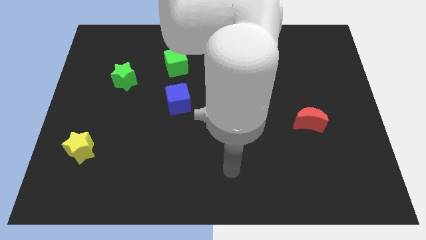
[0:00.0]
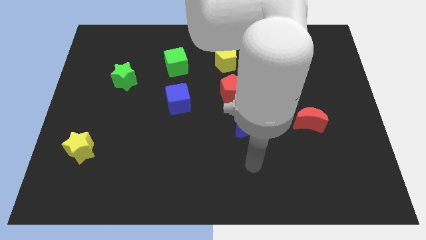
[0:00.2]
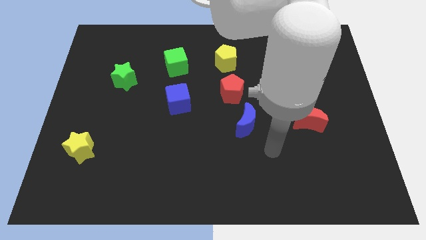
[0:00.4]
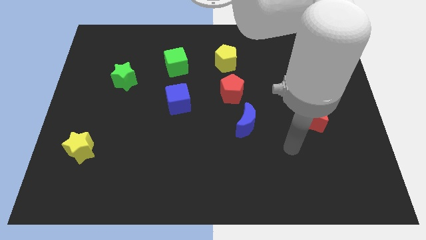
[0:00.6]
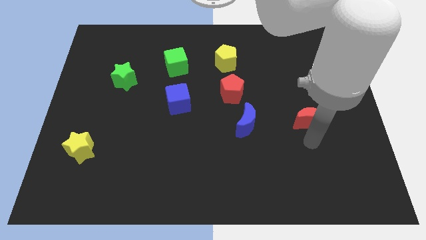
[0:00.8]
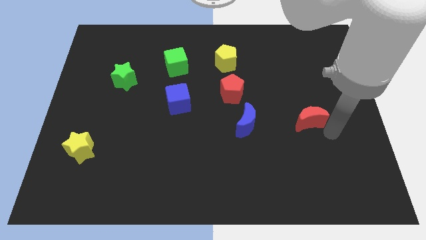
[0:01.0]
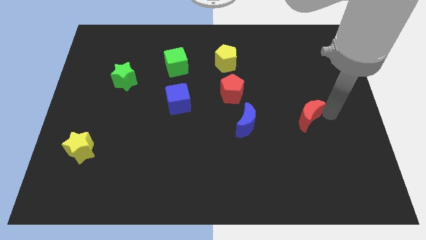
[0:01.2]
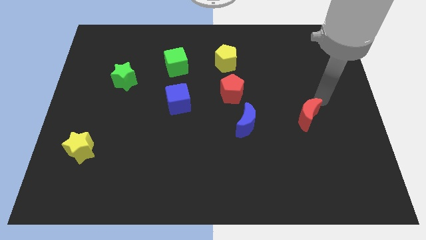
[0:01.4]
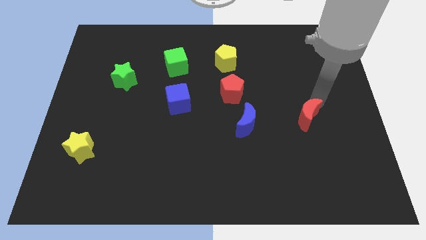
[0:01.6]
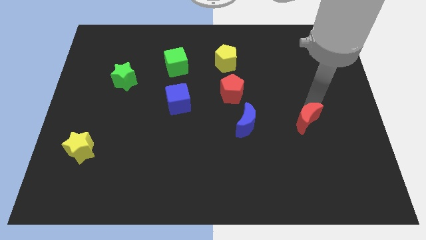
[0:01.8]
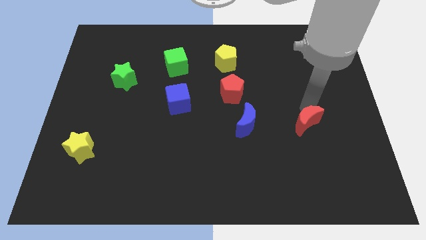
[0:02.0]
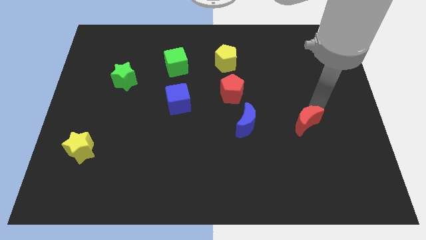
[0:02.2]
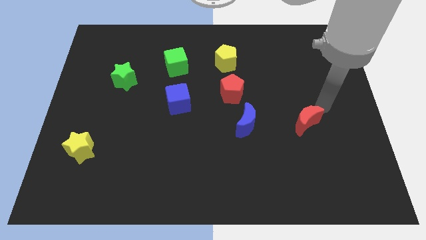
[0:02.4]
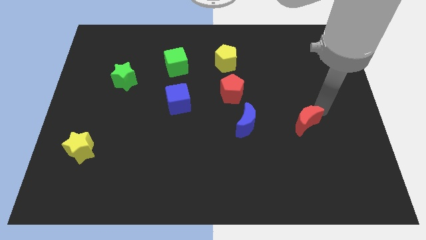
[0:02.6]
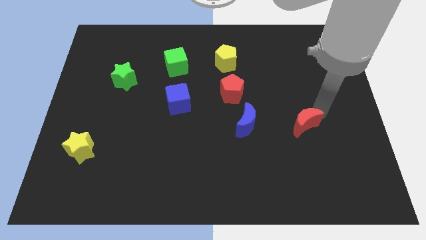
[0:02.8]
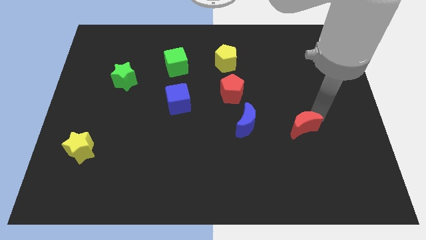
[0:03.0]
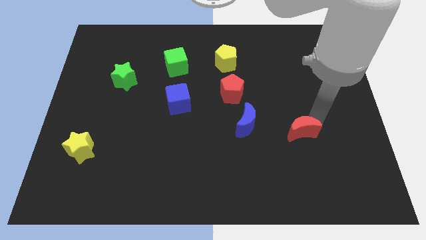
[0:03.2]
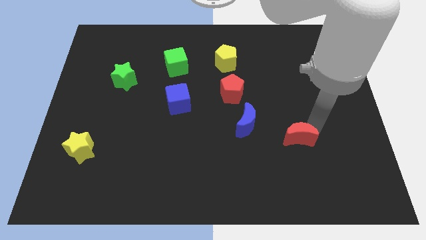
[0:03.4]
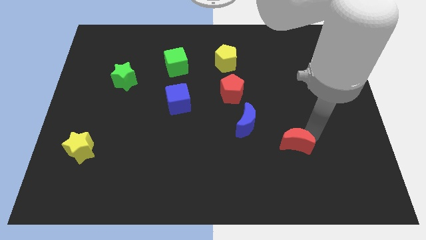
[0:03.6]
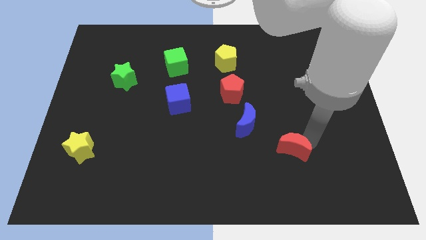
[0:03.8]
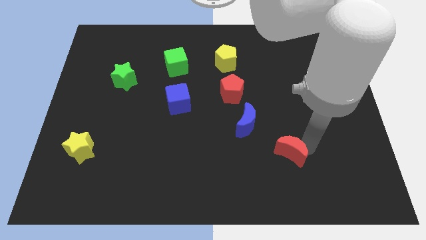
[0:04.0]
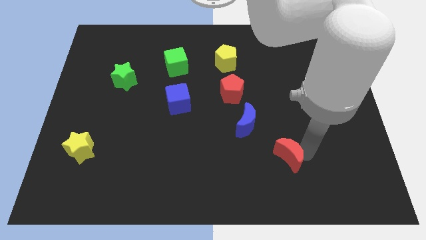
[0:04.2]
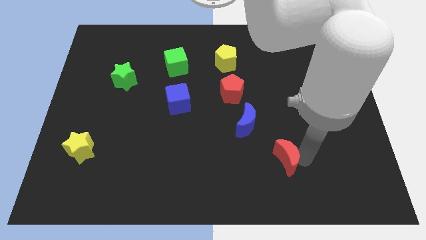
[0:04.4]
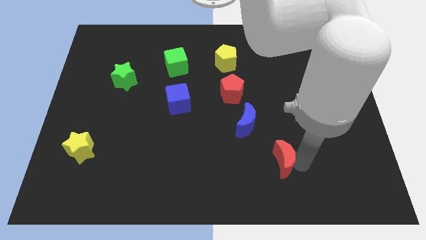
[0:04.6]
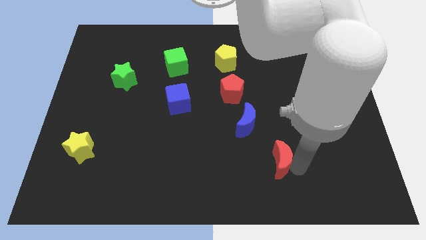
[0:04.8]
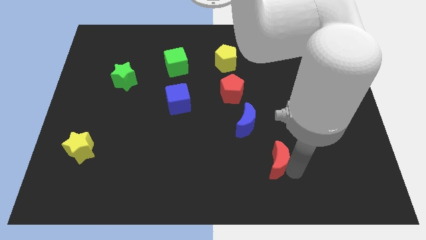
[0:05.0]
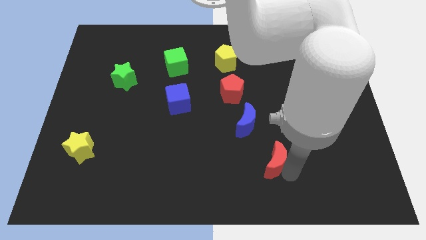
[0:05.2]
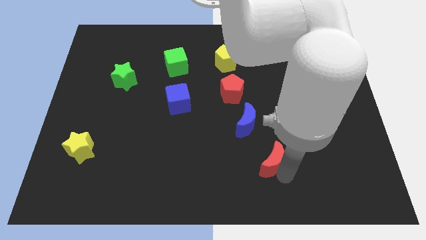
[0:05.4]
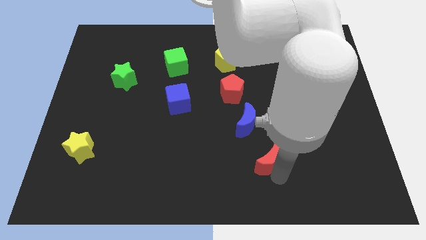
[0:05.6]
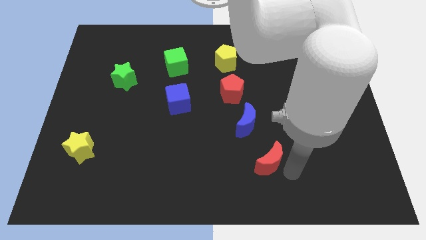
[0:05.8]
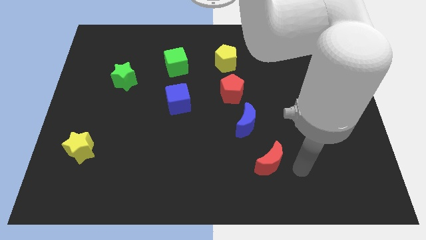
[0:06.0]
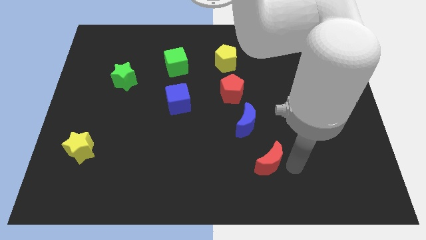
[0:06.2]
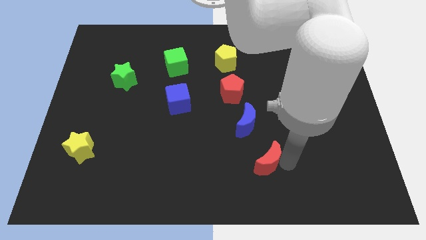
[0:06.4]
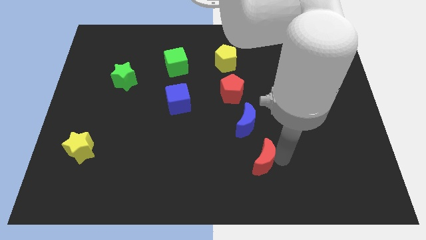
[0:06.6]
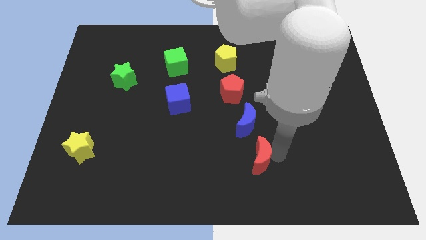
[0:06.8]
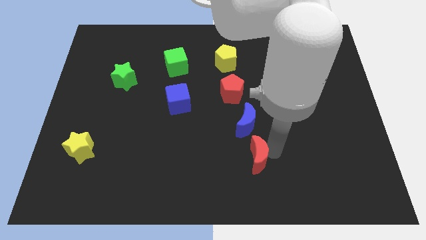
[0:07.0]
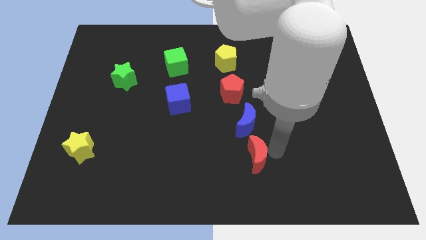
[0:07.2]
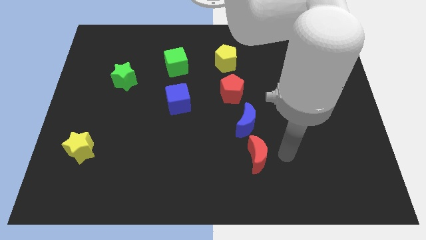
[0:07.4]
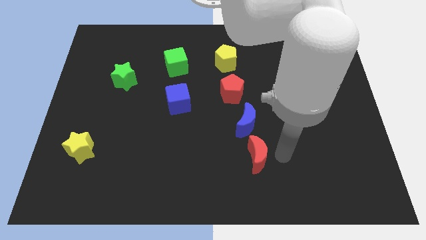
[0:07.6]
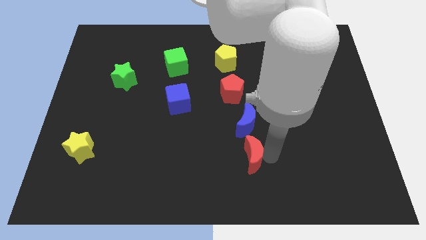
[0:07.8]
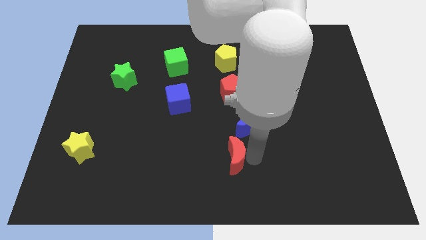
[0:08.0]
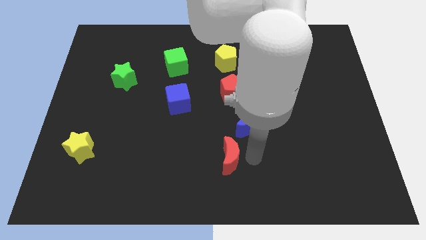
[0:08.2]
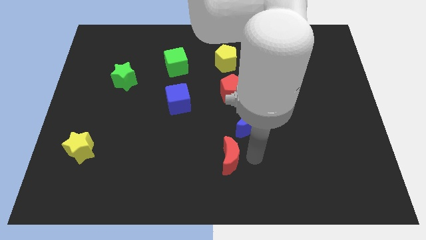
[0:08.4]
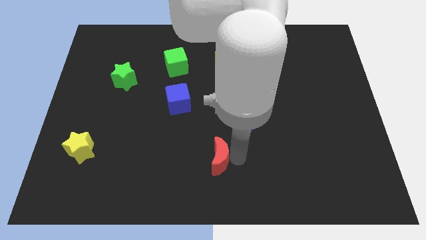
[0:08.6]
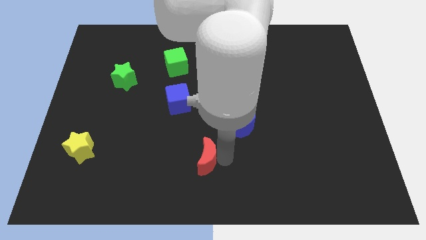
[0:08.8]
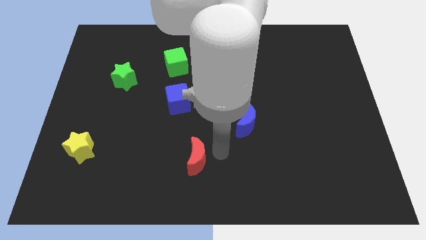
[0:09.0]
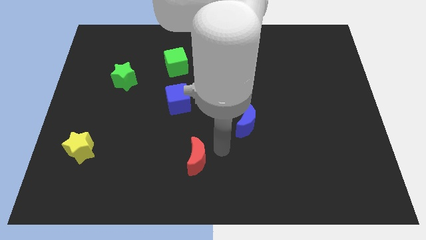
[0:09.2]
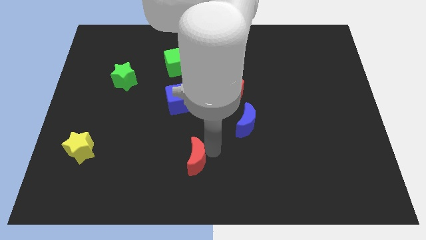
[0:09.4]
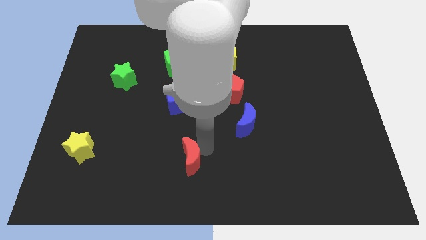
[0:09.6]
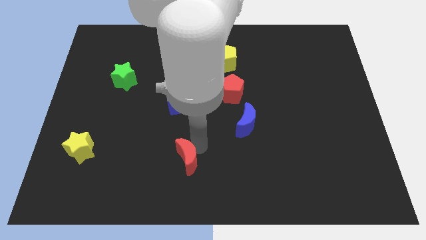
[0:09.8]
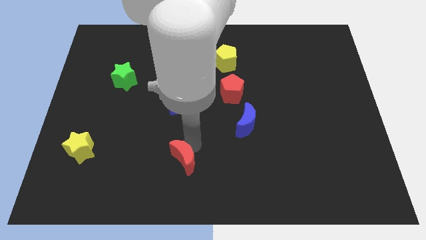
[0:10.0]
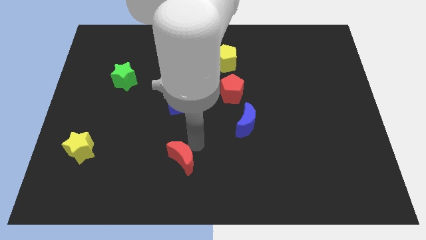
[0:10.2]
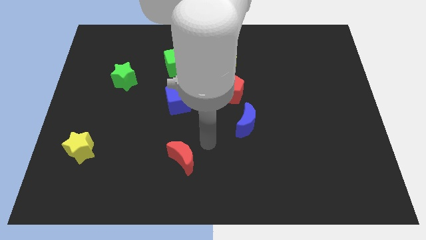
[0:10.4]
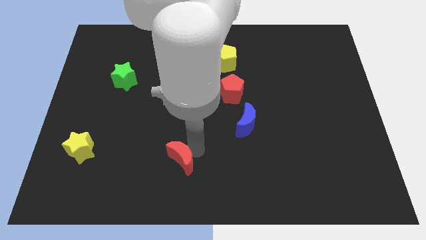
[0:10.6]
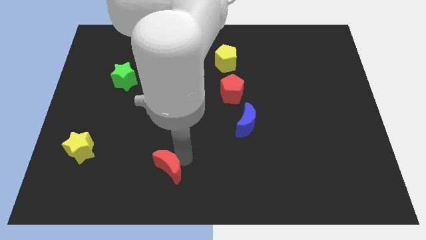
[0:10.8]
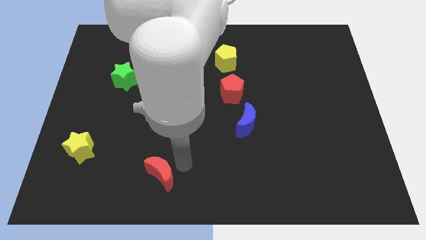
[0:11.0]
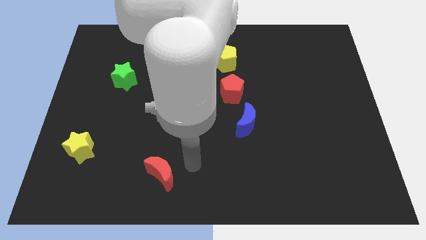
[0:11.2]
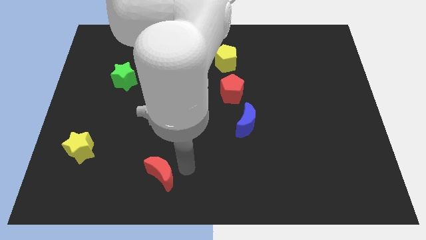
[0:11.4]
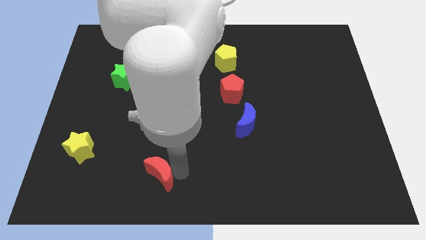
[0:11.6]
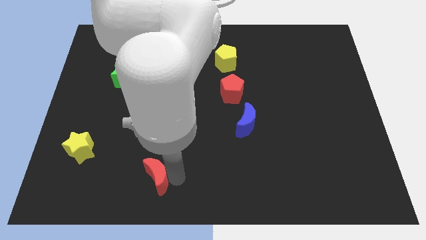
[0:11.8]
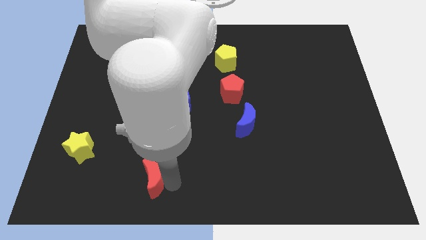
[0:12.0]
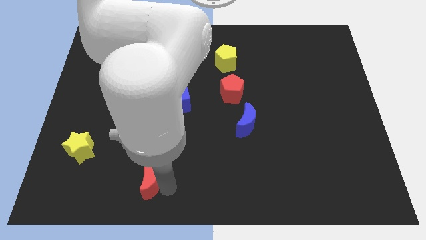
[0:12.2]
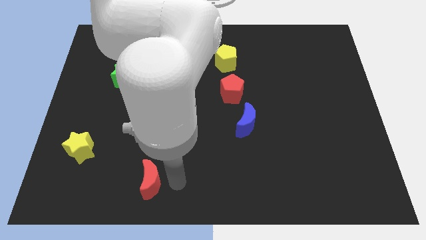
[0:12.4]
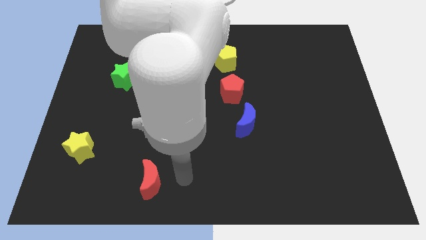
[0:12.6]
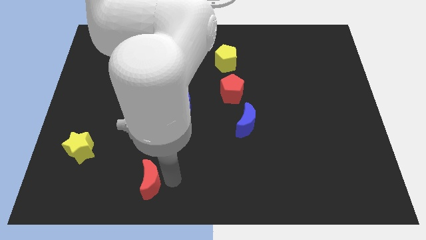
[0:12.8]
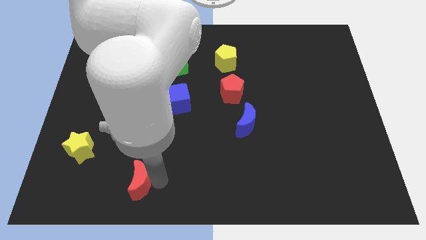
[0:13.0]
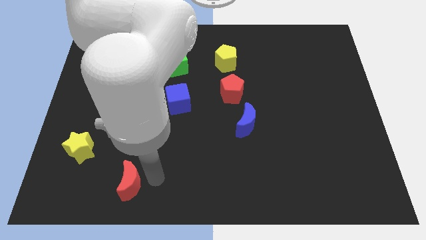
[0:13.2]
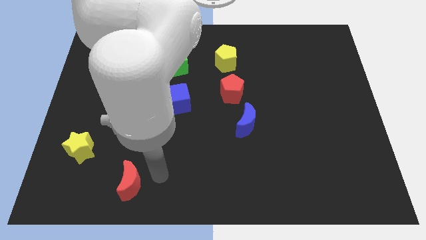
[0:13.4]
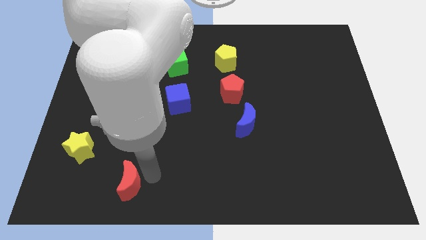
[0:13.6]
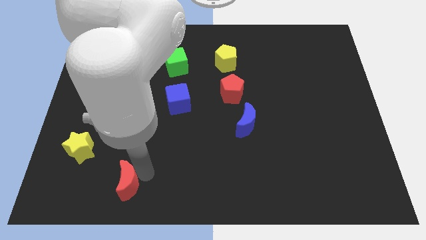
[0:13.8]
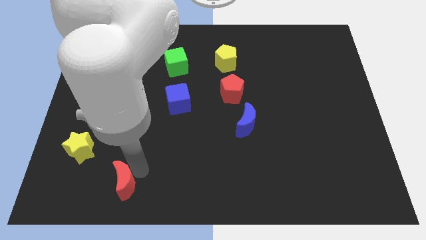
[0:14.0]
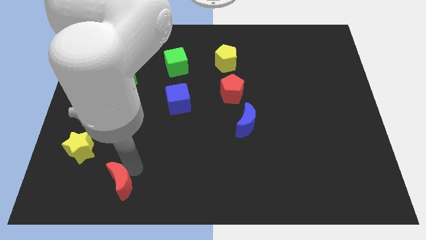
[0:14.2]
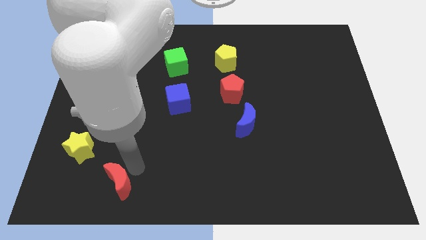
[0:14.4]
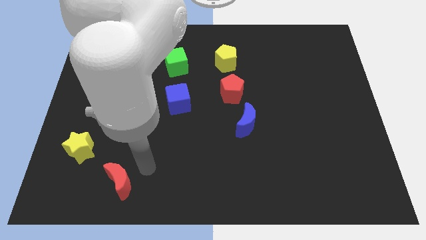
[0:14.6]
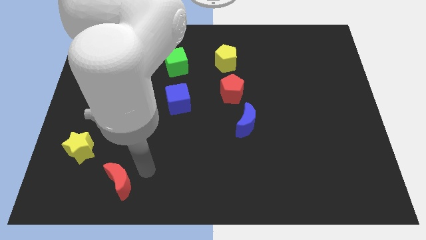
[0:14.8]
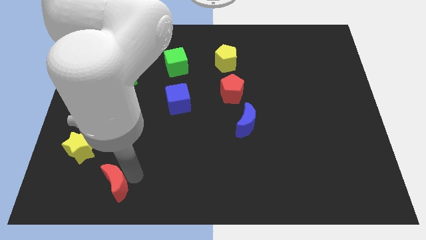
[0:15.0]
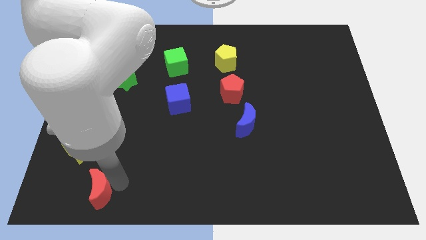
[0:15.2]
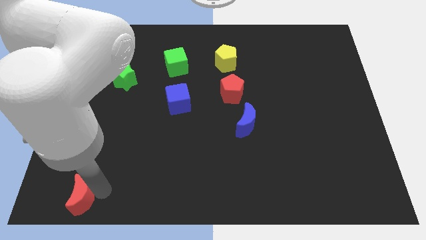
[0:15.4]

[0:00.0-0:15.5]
slide the red moon to the lower left corner
